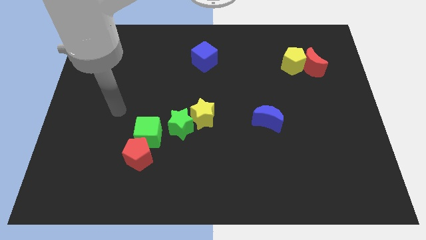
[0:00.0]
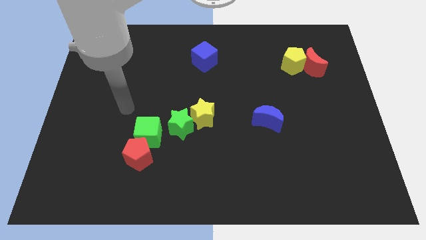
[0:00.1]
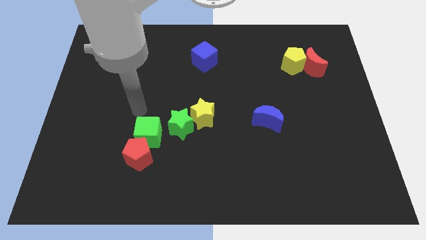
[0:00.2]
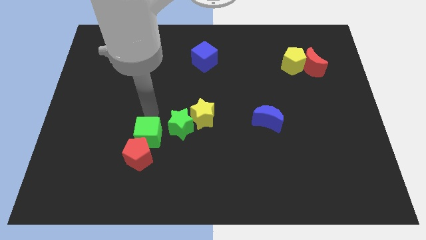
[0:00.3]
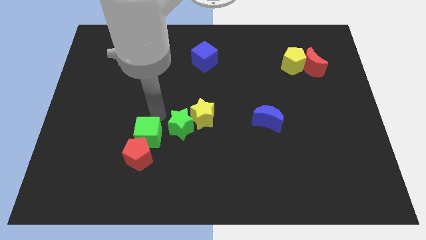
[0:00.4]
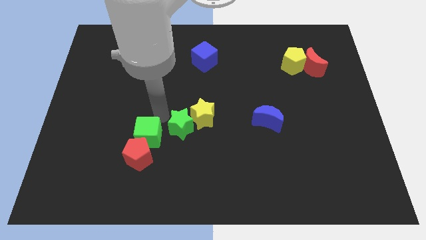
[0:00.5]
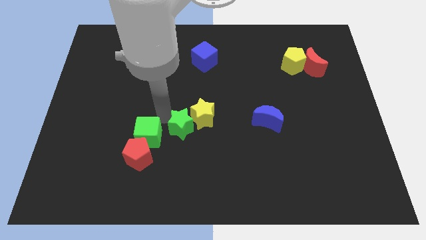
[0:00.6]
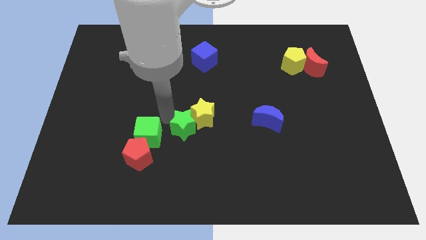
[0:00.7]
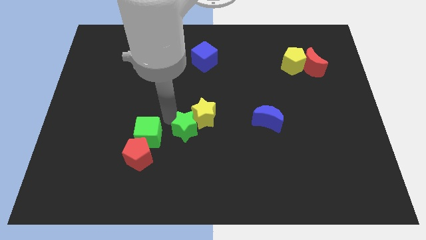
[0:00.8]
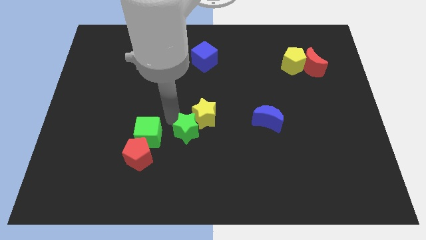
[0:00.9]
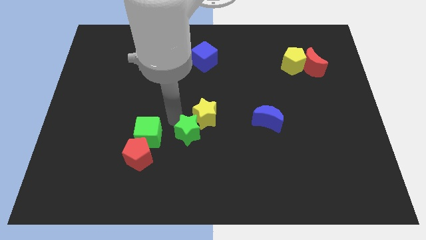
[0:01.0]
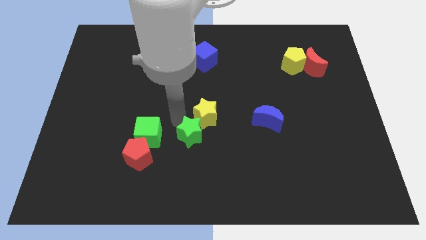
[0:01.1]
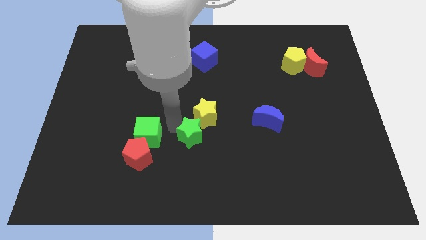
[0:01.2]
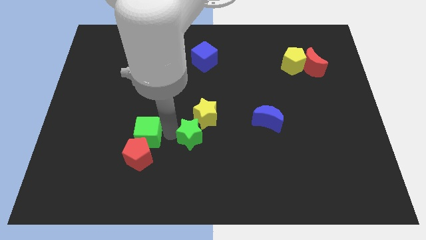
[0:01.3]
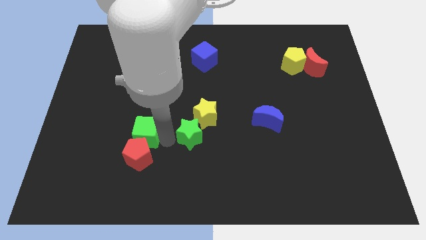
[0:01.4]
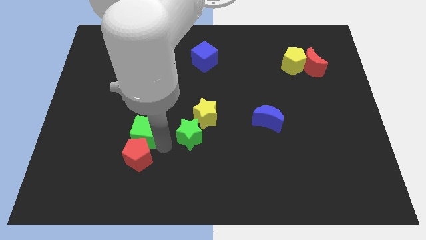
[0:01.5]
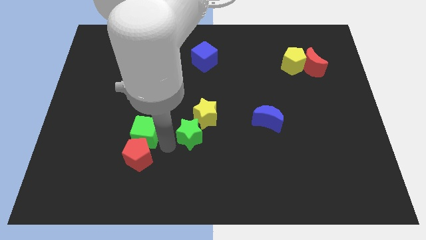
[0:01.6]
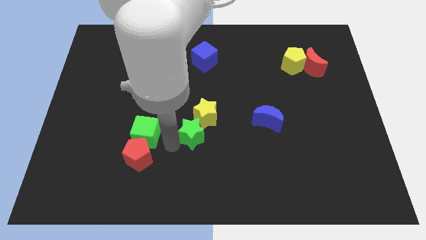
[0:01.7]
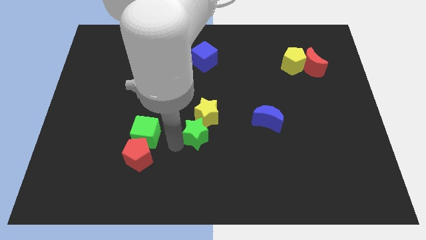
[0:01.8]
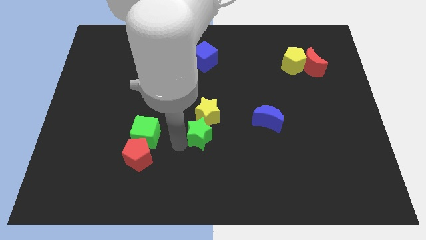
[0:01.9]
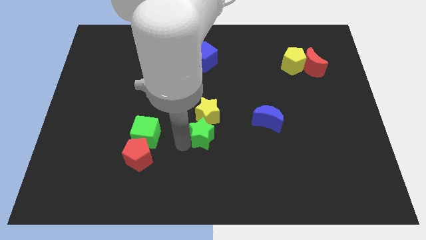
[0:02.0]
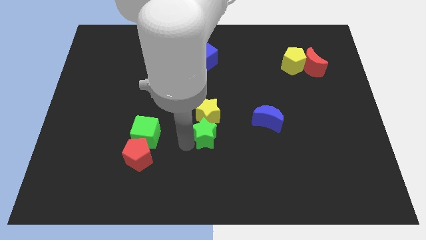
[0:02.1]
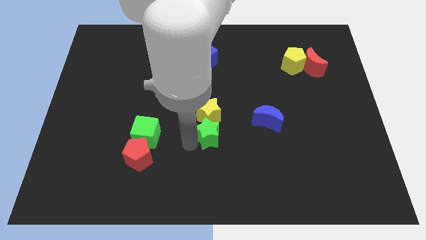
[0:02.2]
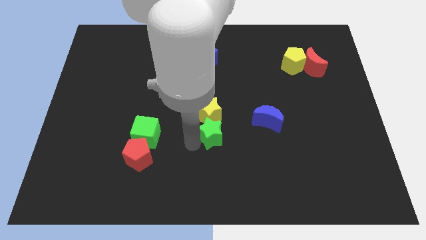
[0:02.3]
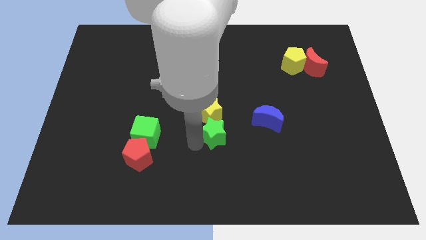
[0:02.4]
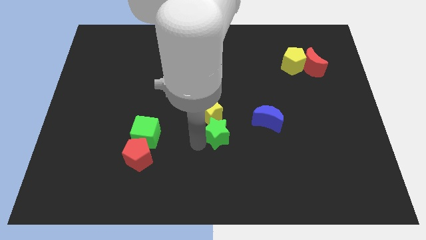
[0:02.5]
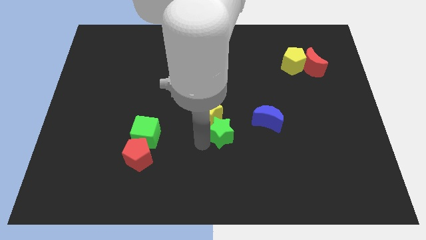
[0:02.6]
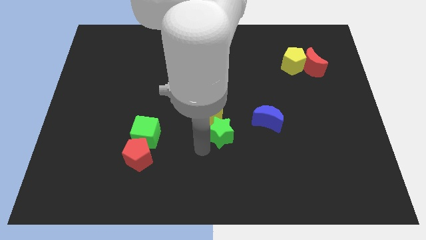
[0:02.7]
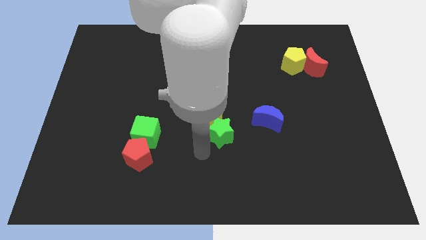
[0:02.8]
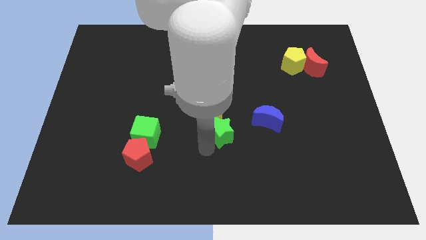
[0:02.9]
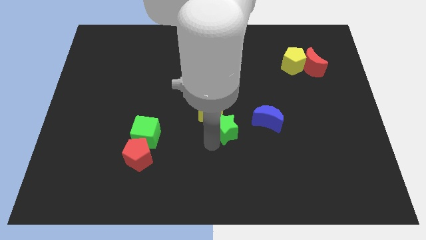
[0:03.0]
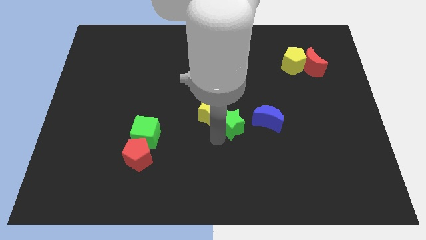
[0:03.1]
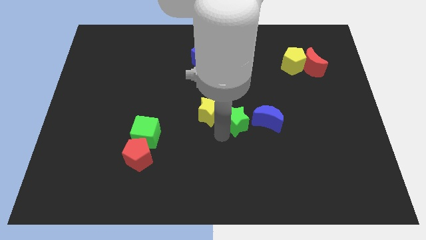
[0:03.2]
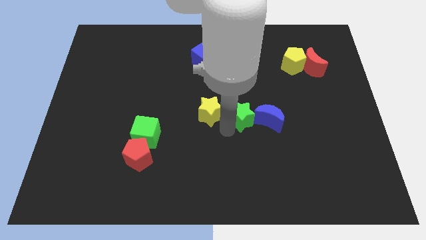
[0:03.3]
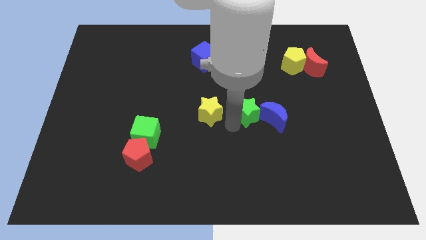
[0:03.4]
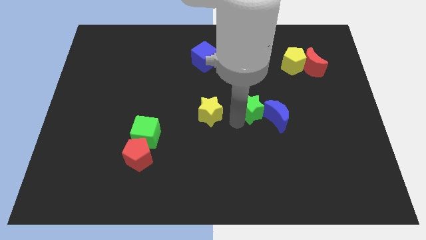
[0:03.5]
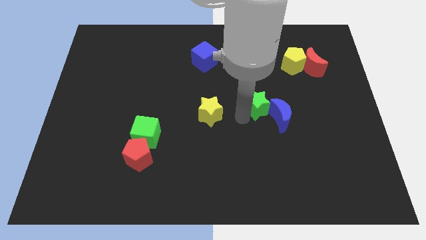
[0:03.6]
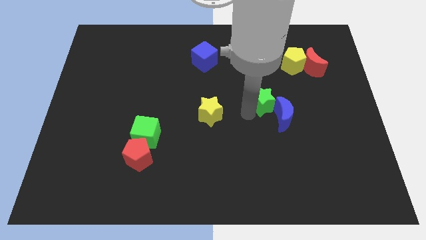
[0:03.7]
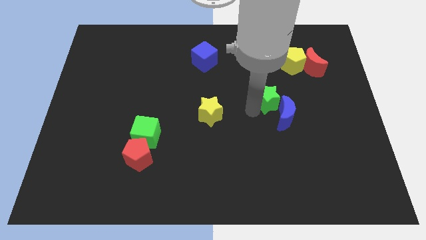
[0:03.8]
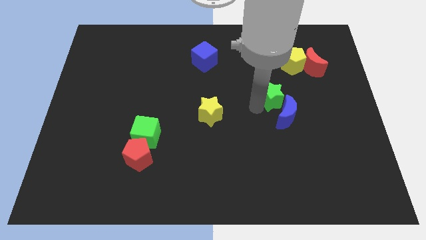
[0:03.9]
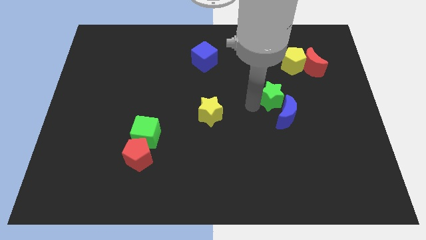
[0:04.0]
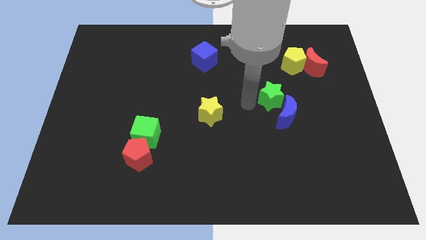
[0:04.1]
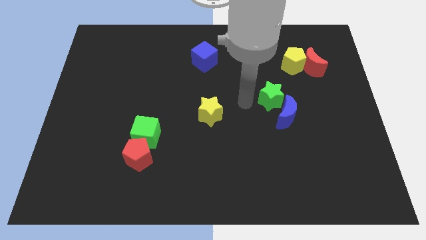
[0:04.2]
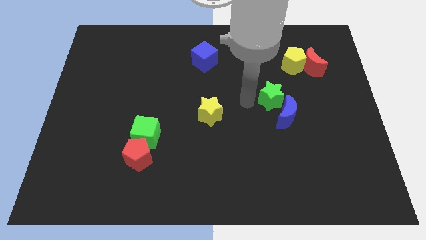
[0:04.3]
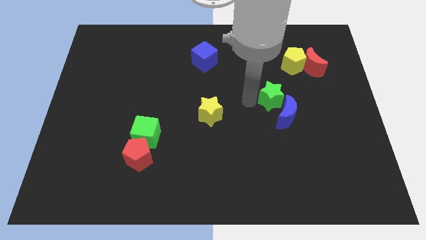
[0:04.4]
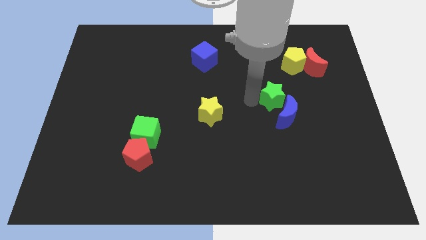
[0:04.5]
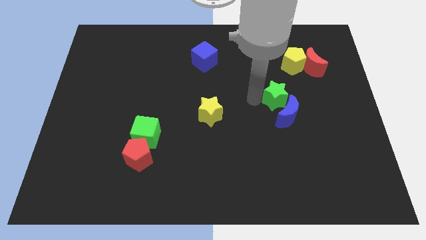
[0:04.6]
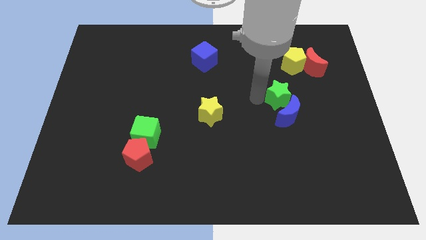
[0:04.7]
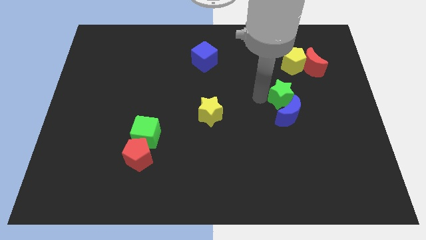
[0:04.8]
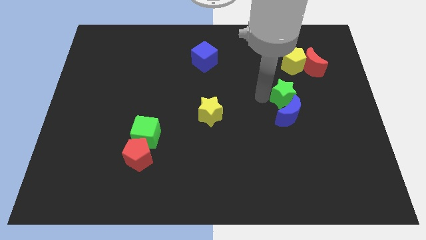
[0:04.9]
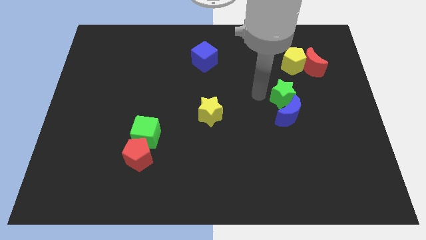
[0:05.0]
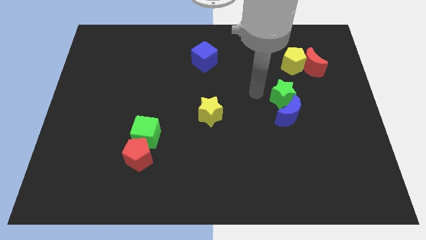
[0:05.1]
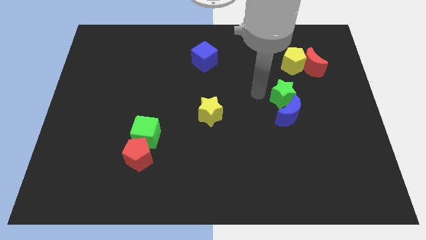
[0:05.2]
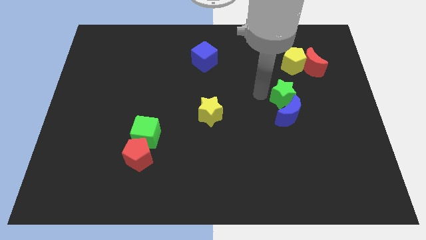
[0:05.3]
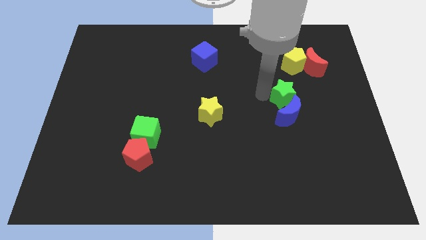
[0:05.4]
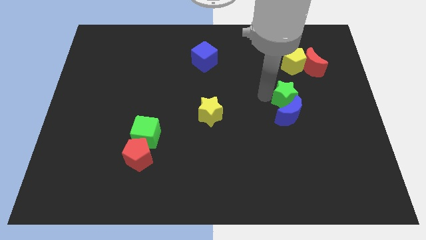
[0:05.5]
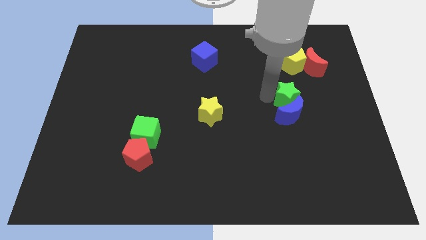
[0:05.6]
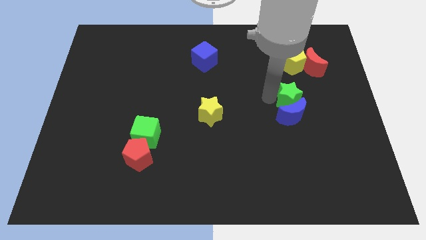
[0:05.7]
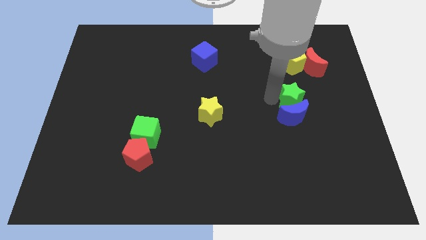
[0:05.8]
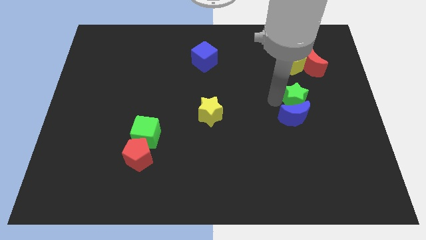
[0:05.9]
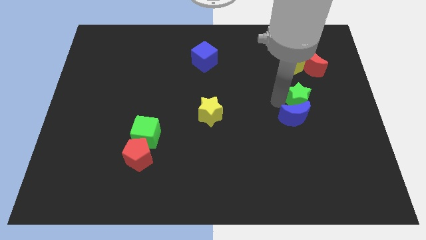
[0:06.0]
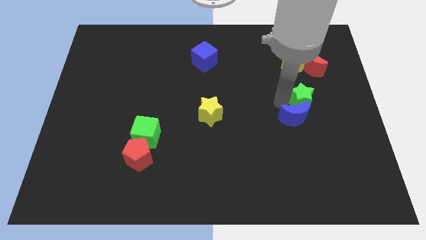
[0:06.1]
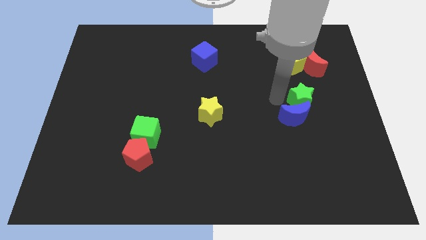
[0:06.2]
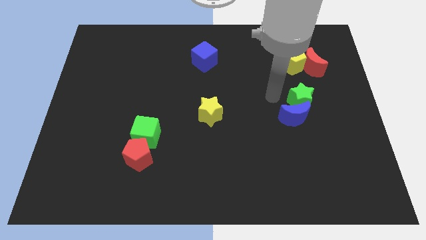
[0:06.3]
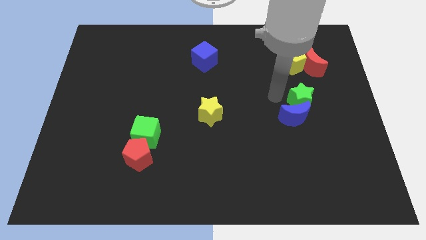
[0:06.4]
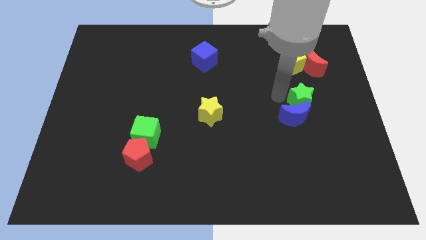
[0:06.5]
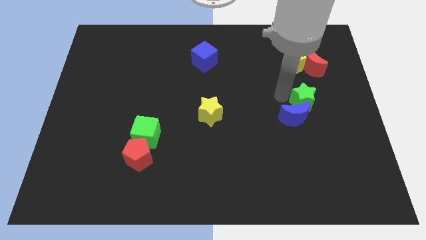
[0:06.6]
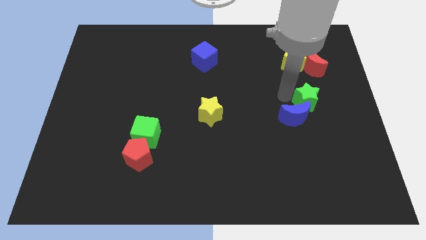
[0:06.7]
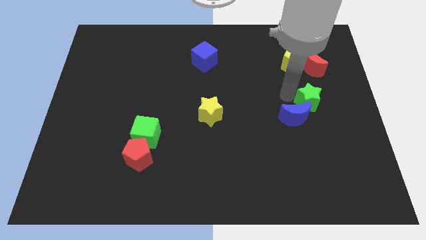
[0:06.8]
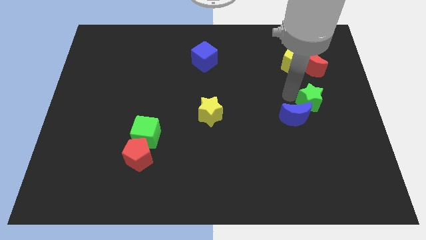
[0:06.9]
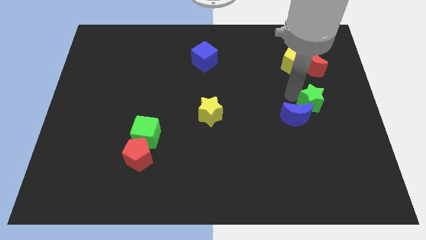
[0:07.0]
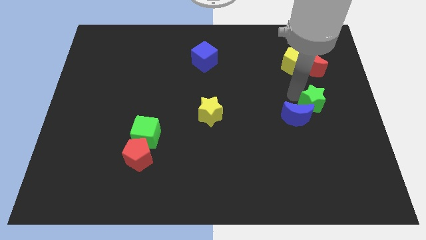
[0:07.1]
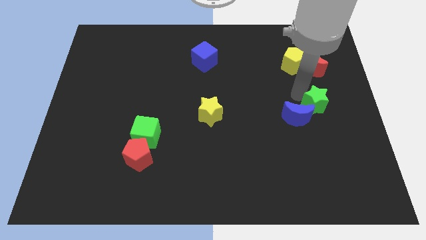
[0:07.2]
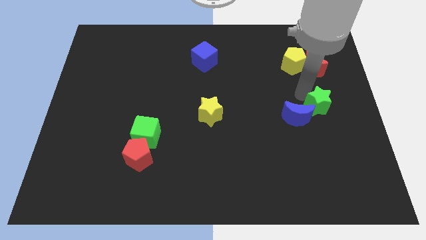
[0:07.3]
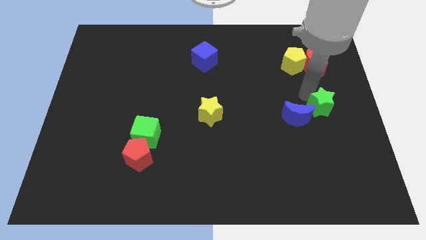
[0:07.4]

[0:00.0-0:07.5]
slide the green star to the center right
